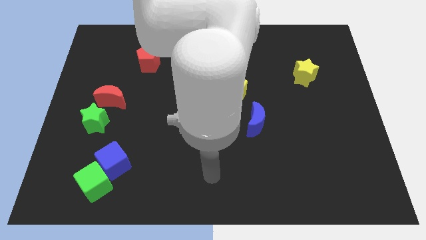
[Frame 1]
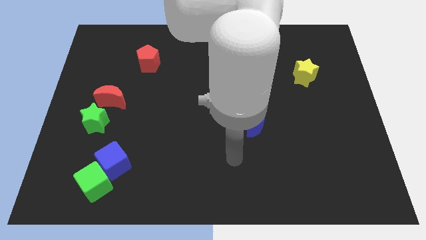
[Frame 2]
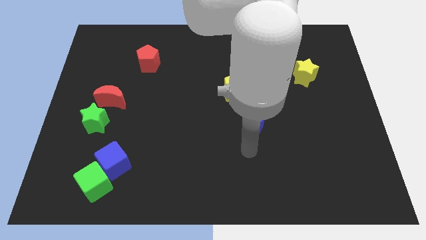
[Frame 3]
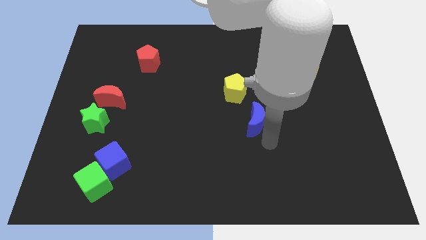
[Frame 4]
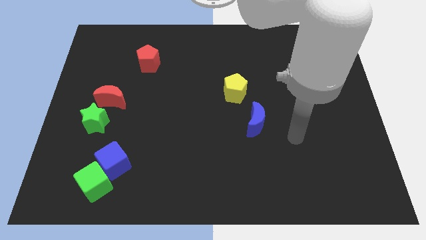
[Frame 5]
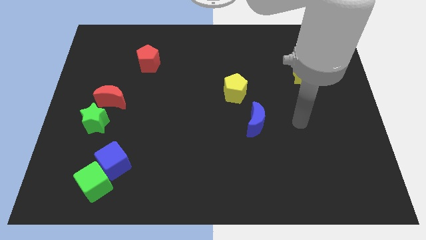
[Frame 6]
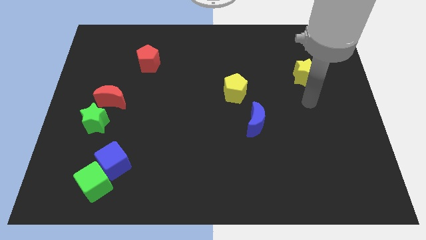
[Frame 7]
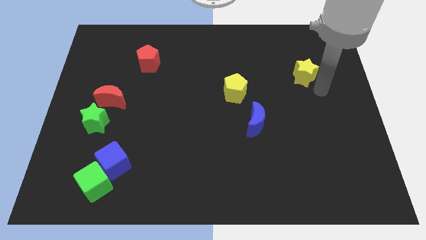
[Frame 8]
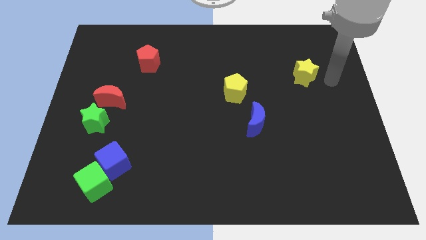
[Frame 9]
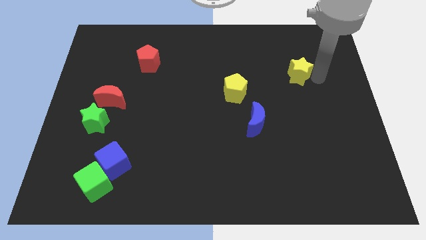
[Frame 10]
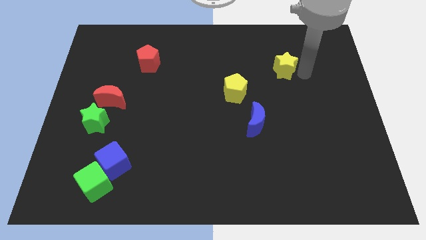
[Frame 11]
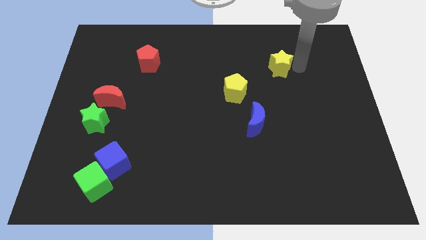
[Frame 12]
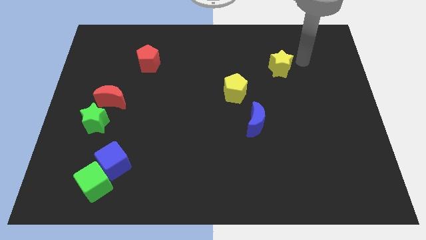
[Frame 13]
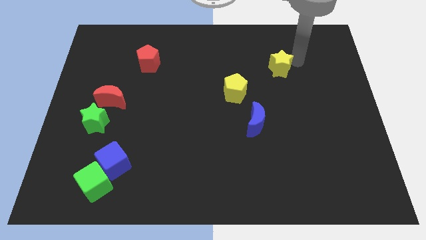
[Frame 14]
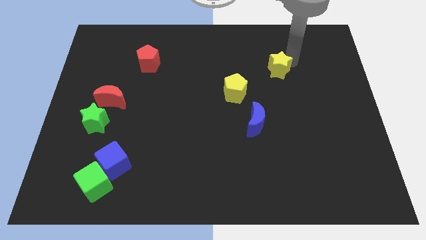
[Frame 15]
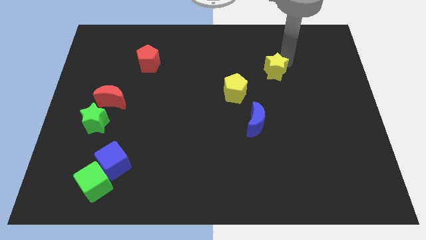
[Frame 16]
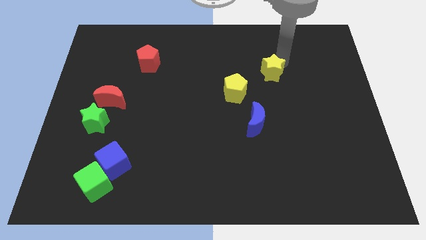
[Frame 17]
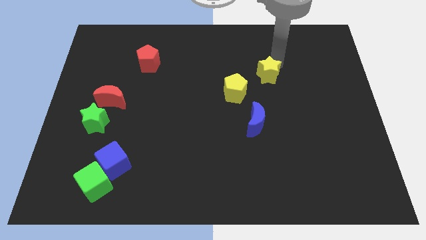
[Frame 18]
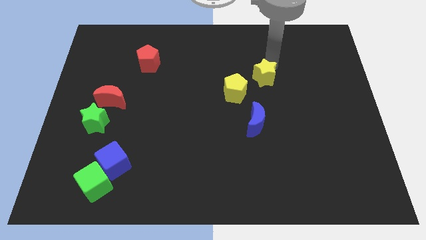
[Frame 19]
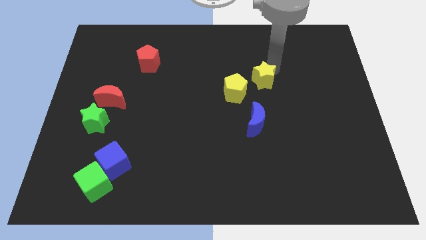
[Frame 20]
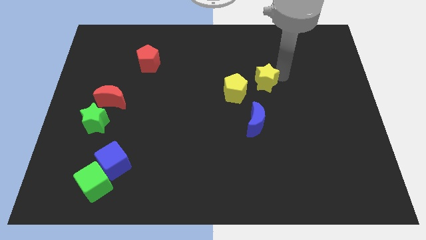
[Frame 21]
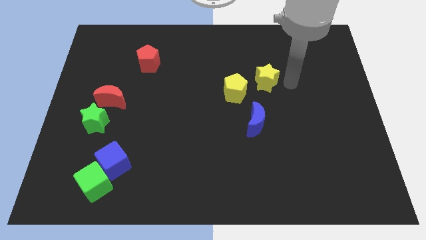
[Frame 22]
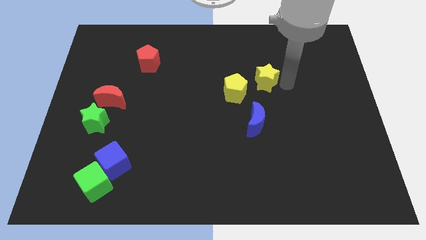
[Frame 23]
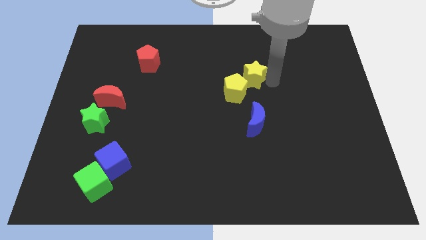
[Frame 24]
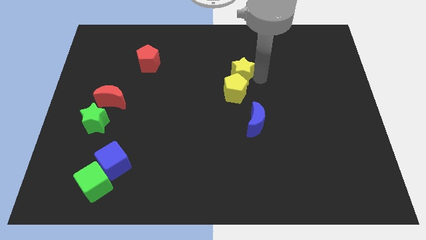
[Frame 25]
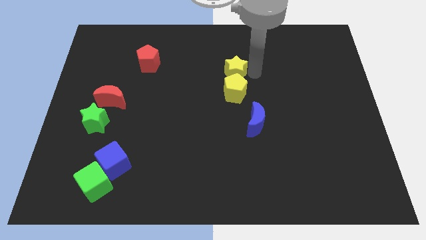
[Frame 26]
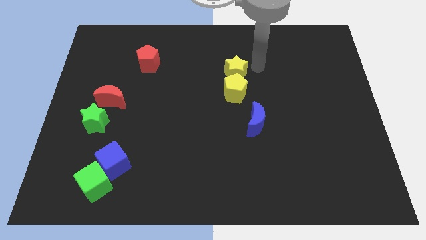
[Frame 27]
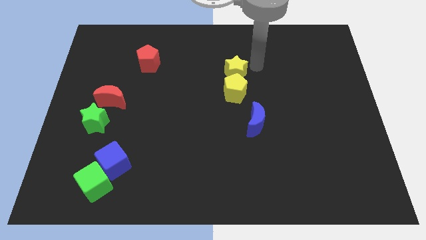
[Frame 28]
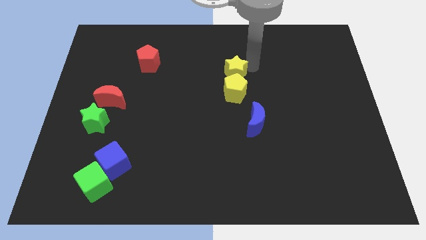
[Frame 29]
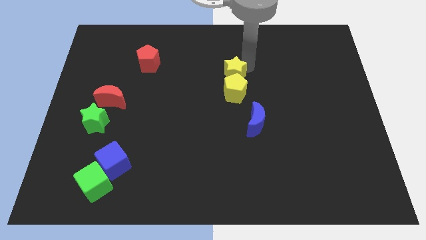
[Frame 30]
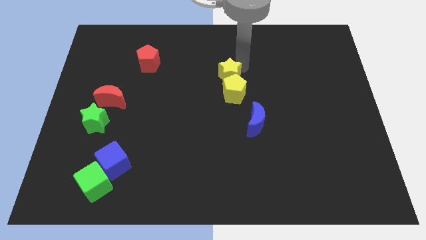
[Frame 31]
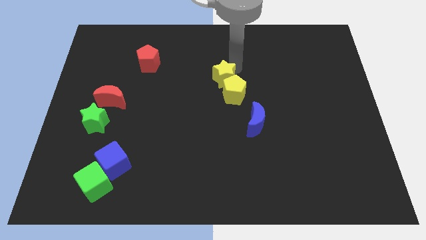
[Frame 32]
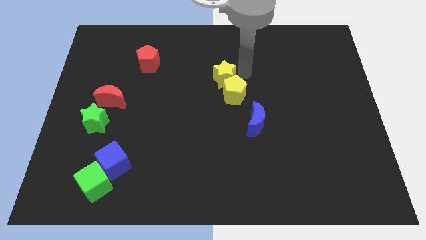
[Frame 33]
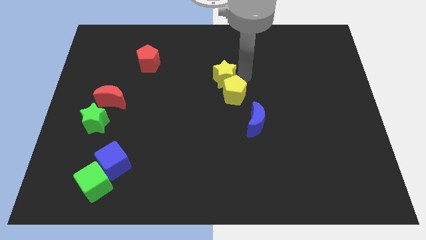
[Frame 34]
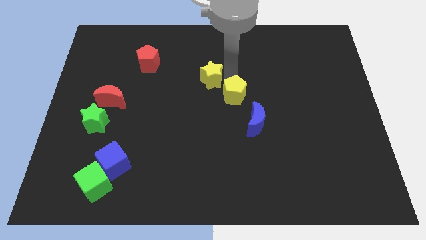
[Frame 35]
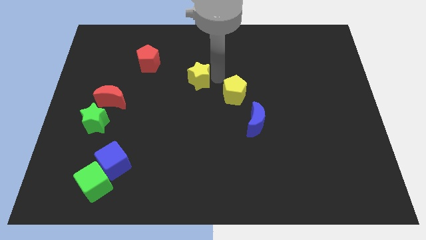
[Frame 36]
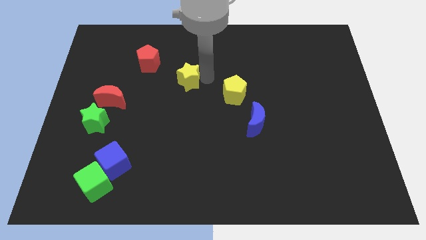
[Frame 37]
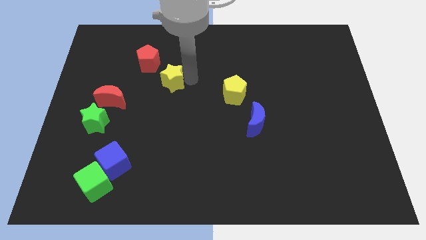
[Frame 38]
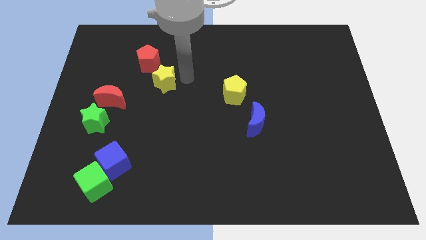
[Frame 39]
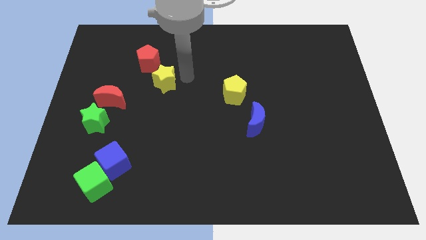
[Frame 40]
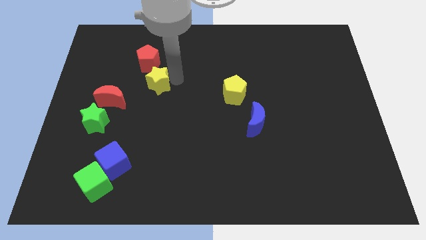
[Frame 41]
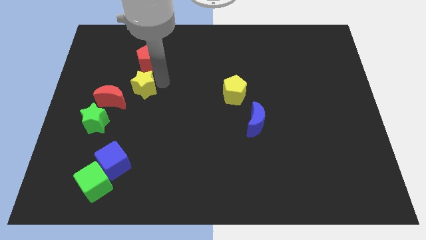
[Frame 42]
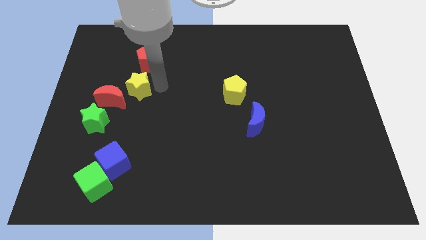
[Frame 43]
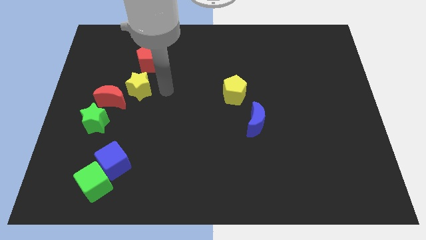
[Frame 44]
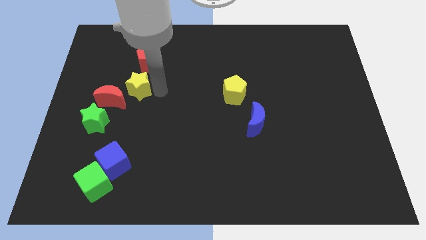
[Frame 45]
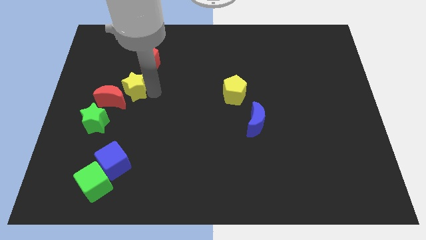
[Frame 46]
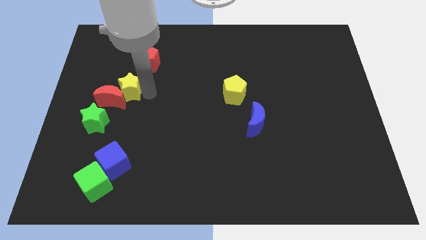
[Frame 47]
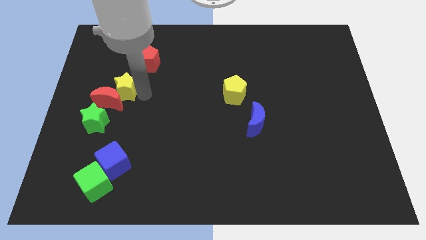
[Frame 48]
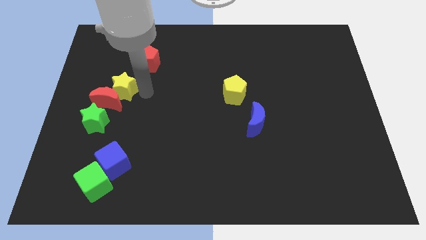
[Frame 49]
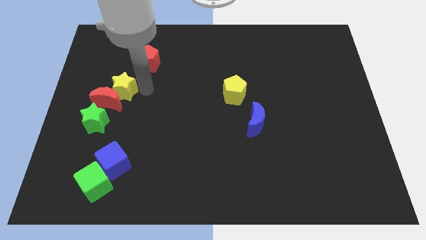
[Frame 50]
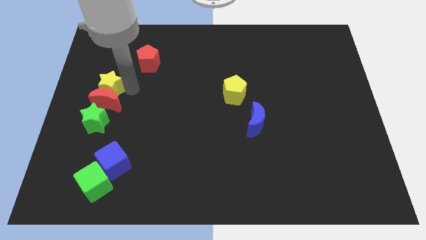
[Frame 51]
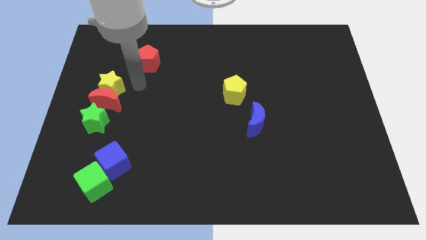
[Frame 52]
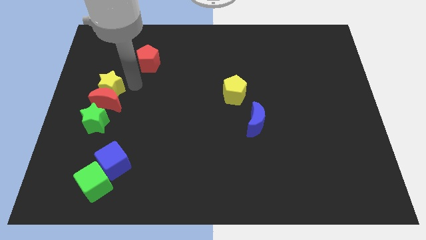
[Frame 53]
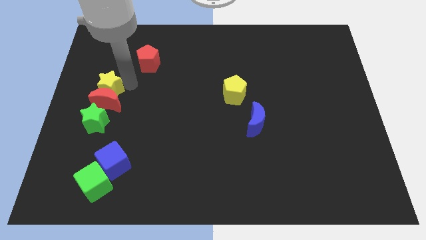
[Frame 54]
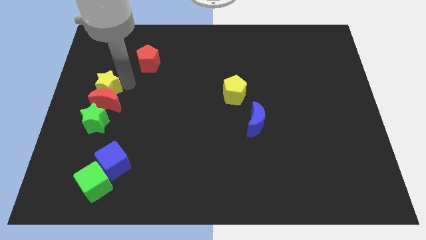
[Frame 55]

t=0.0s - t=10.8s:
slide the yellow star to the left side of the board

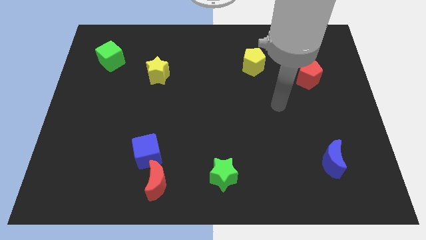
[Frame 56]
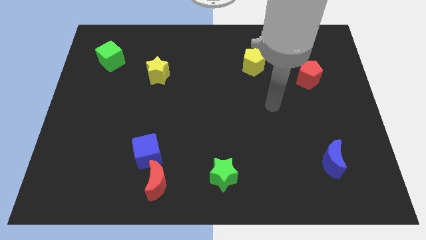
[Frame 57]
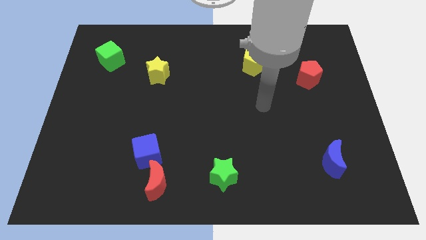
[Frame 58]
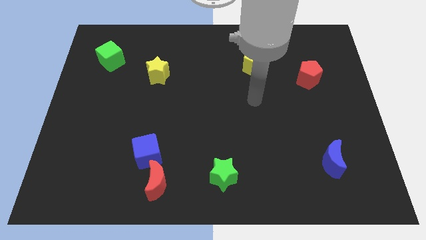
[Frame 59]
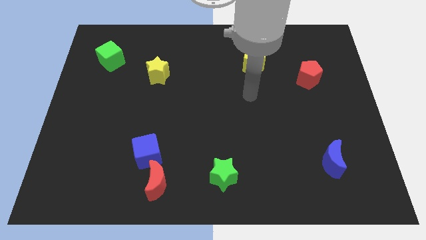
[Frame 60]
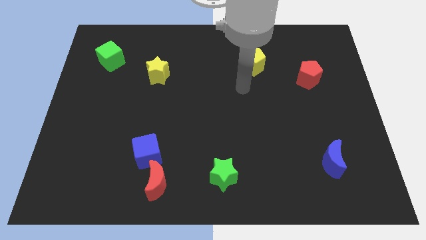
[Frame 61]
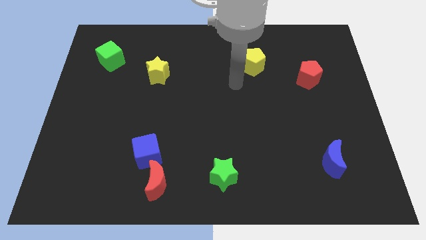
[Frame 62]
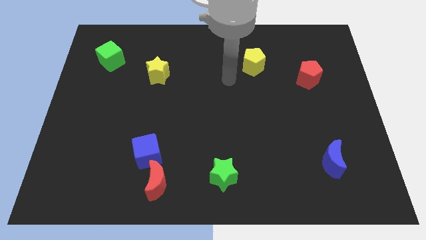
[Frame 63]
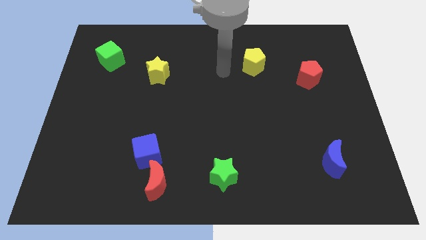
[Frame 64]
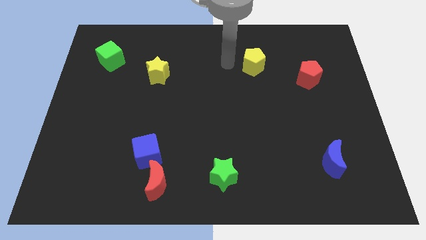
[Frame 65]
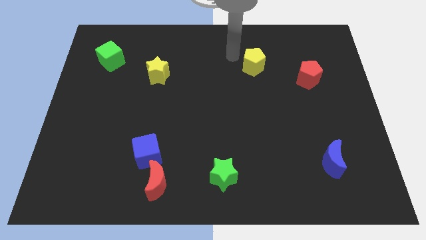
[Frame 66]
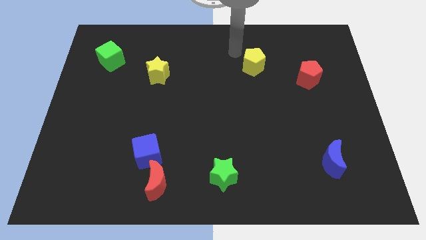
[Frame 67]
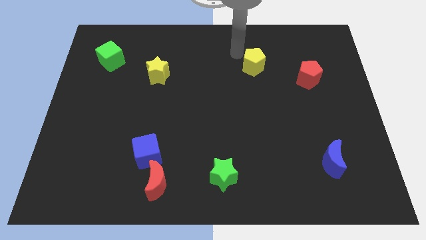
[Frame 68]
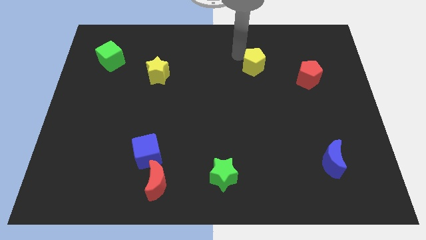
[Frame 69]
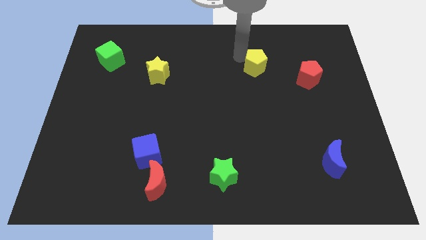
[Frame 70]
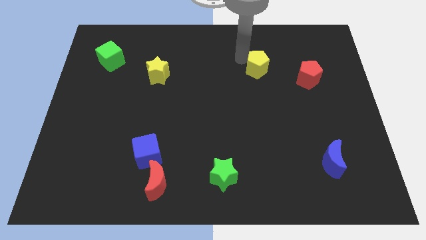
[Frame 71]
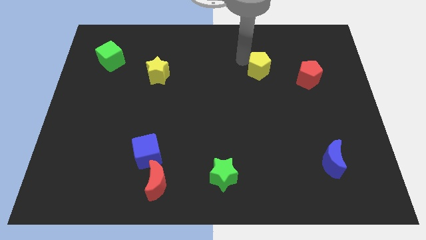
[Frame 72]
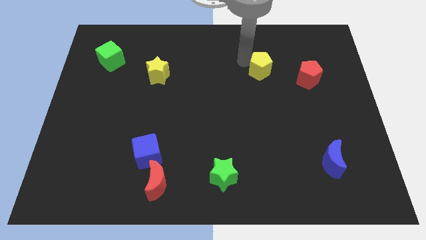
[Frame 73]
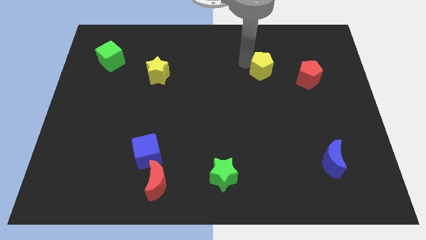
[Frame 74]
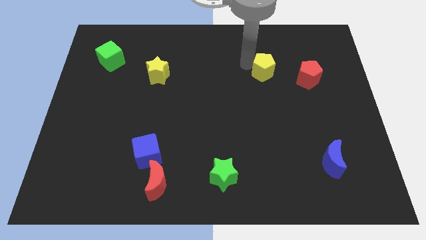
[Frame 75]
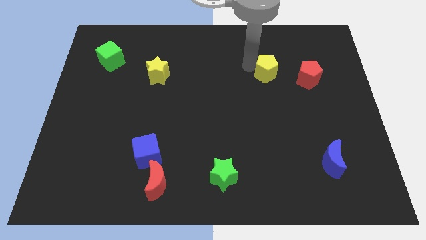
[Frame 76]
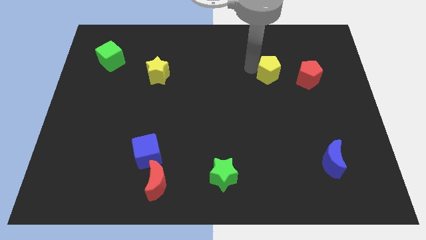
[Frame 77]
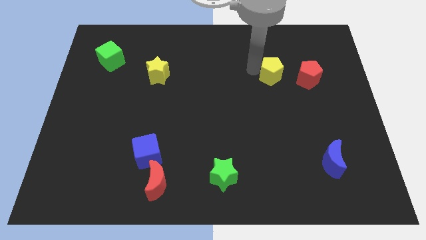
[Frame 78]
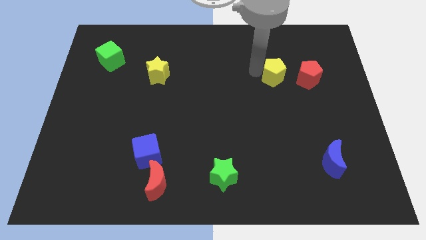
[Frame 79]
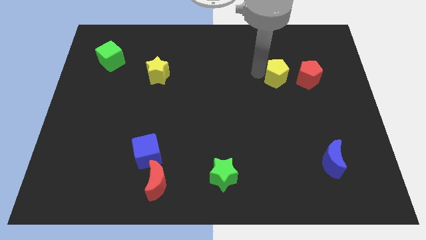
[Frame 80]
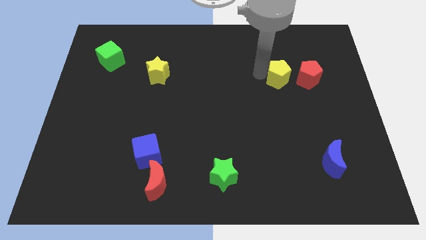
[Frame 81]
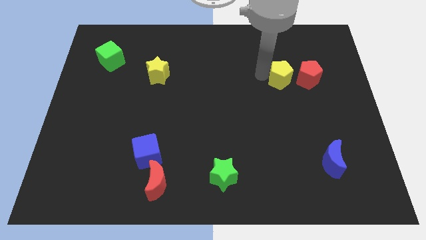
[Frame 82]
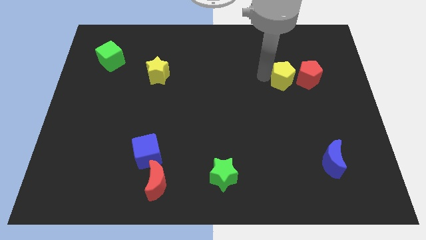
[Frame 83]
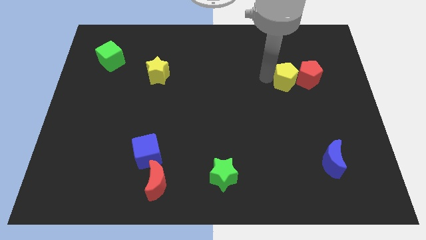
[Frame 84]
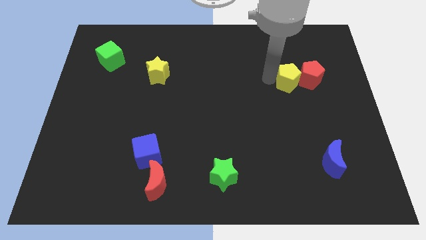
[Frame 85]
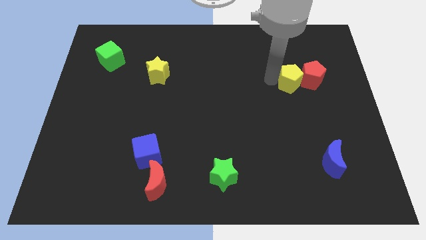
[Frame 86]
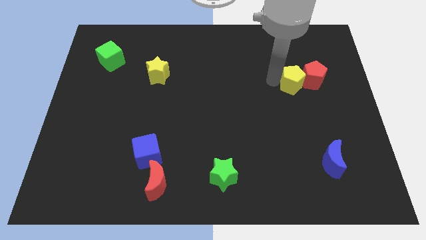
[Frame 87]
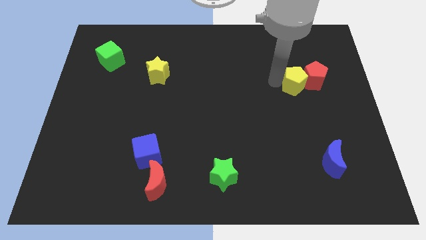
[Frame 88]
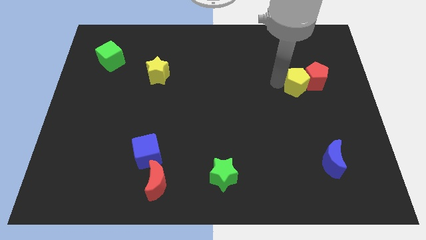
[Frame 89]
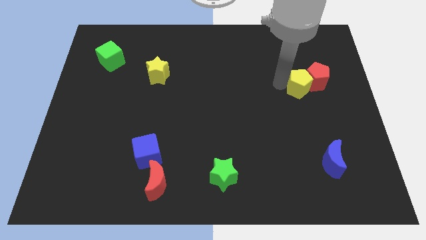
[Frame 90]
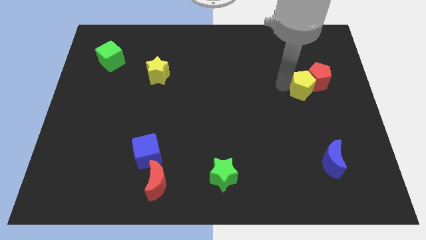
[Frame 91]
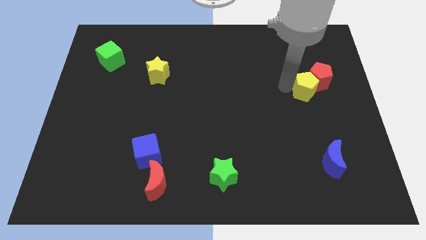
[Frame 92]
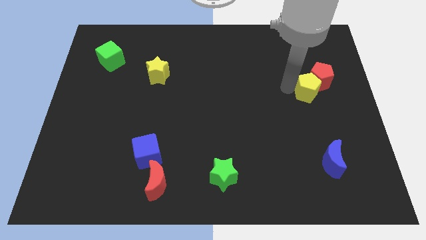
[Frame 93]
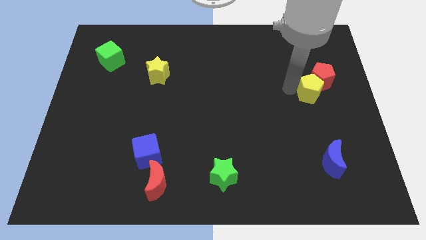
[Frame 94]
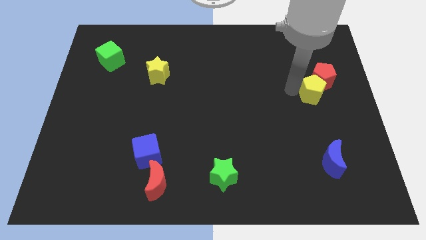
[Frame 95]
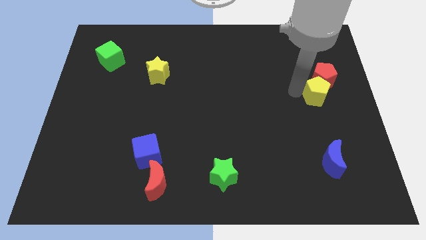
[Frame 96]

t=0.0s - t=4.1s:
slide the yellow pentagon to the right side of the board
